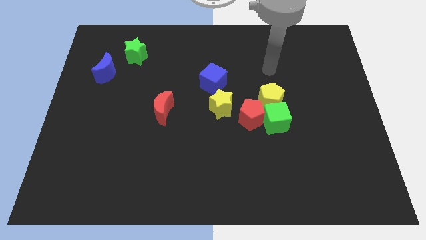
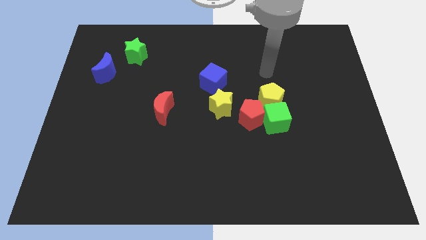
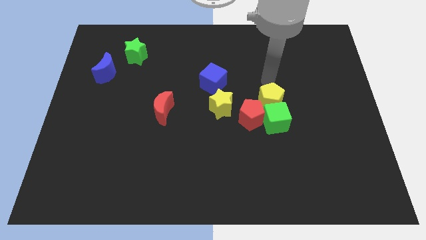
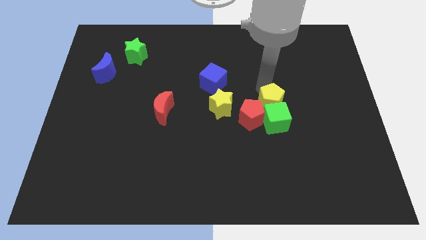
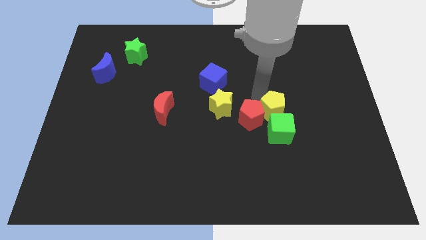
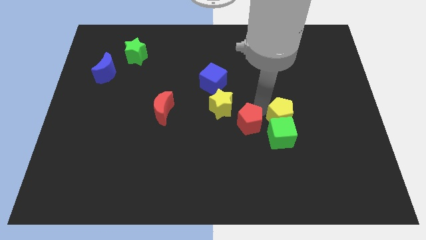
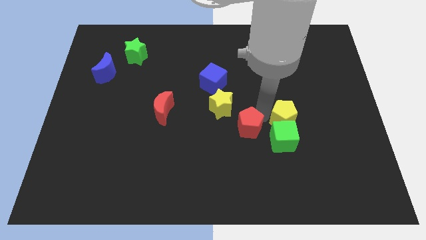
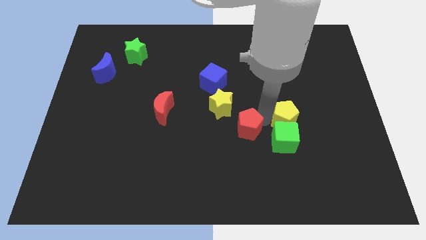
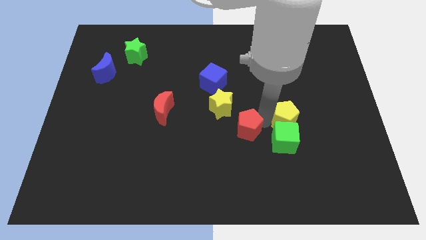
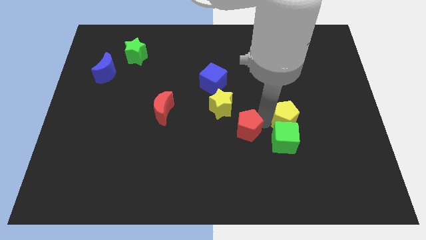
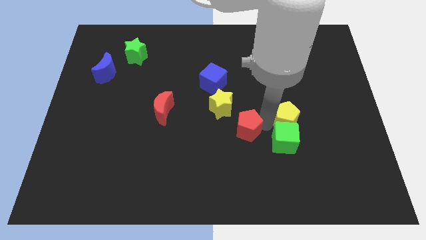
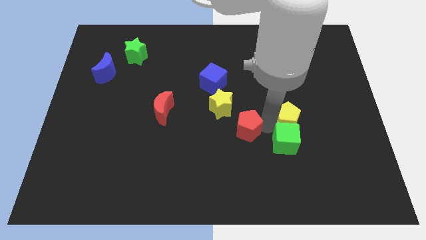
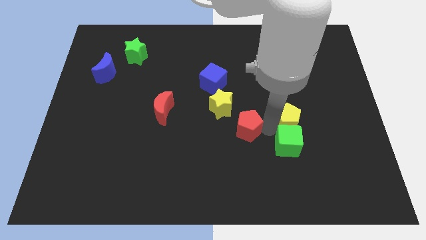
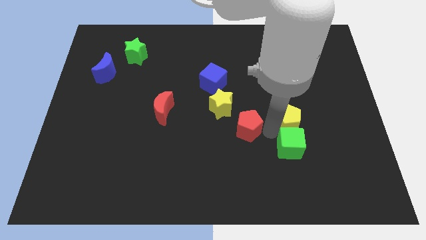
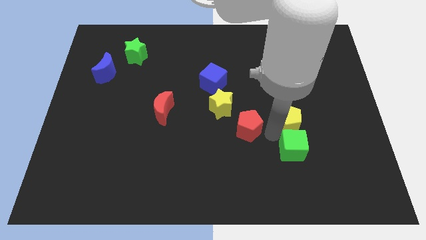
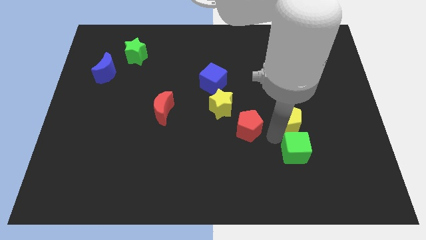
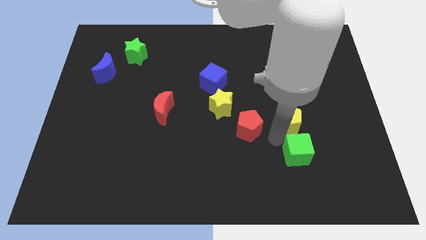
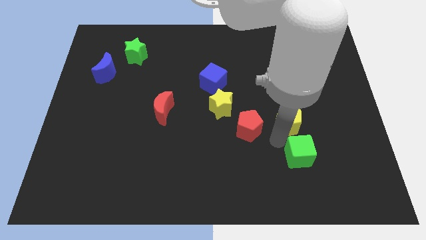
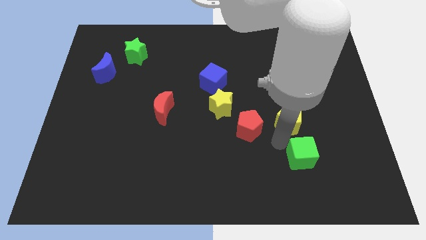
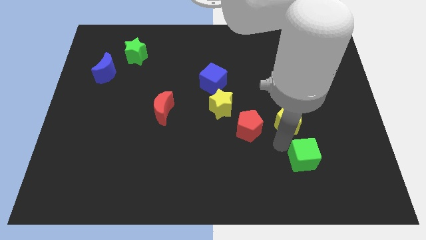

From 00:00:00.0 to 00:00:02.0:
pull the green cube apart from the red pentagon and yellow pentagon

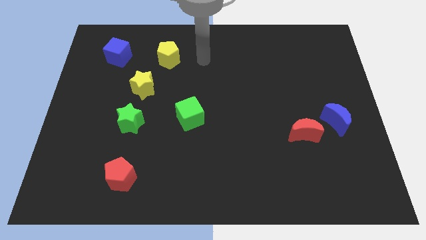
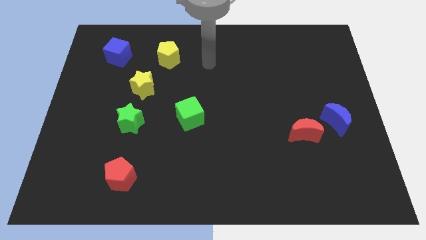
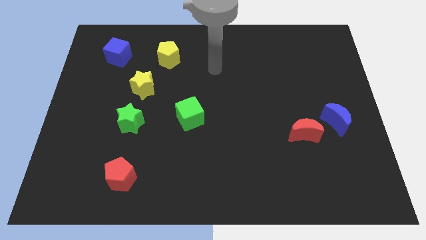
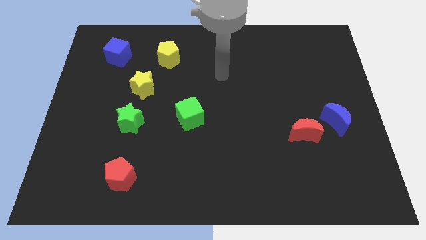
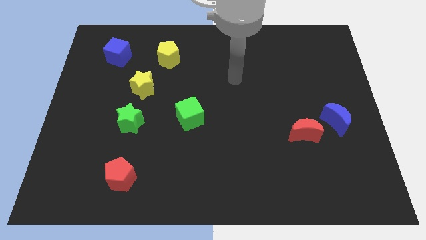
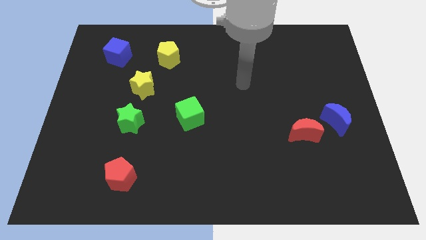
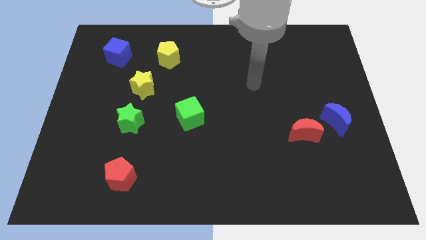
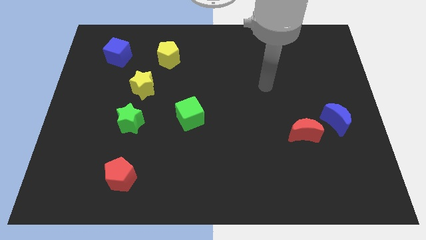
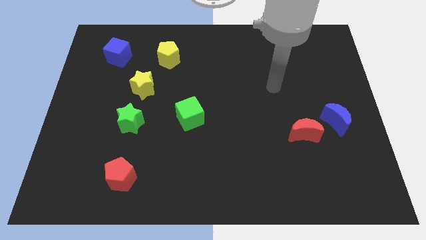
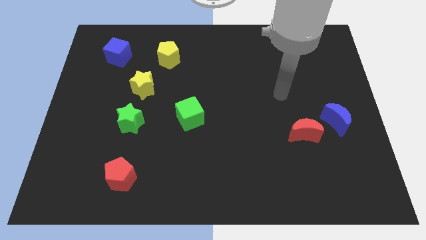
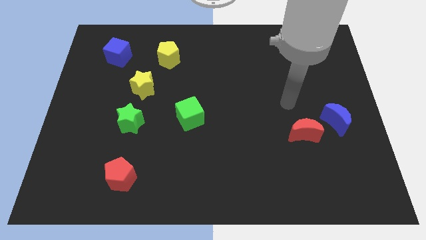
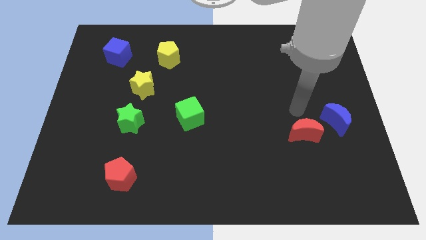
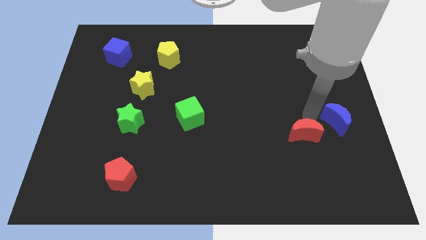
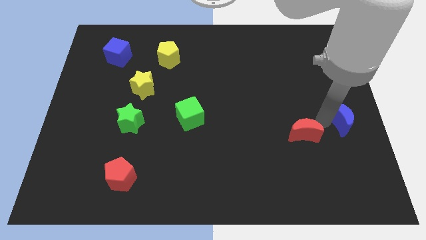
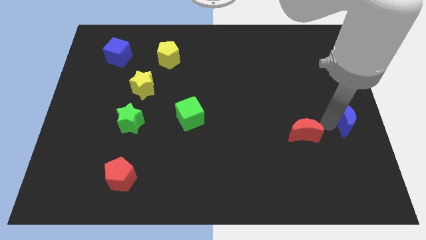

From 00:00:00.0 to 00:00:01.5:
pull the red moon apart from the blue moon

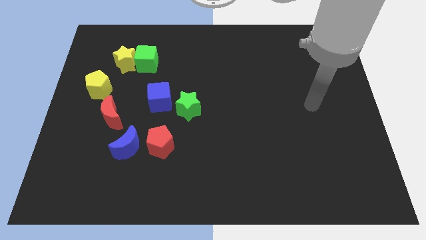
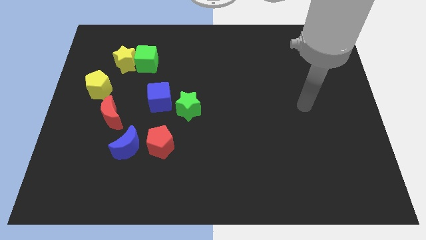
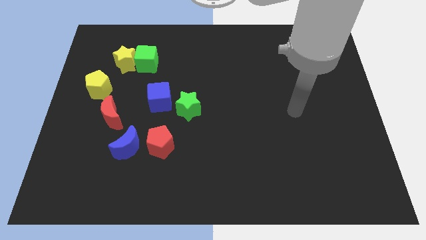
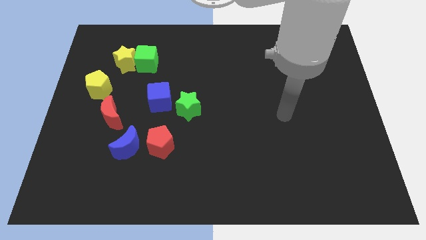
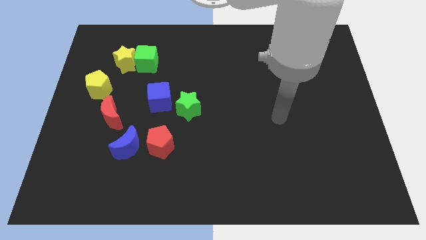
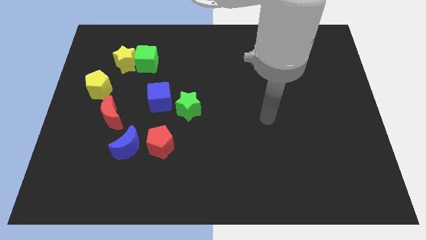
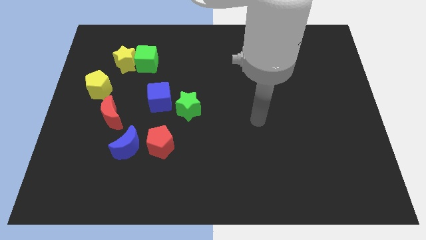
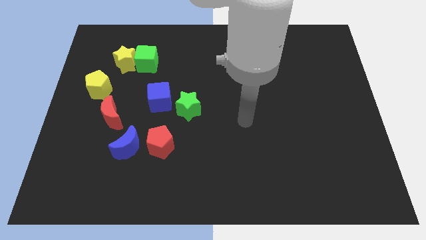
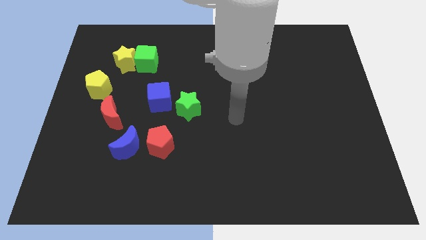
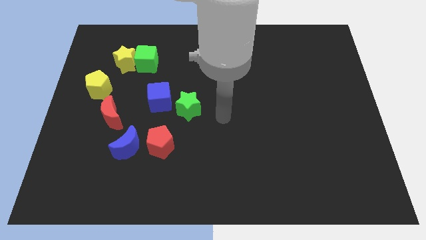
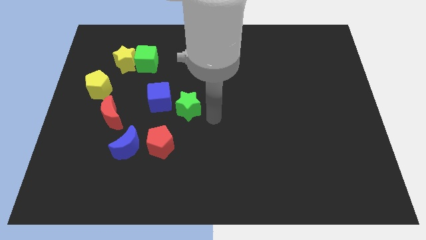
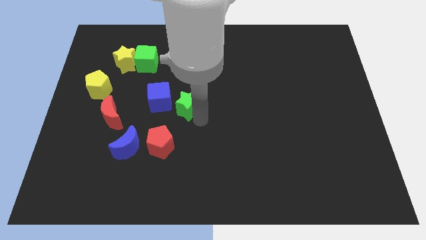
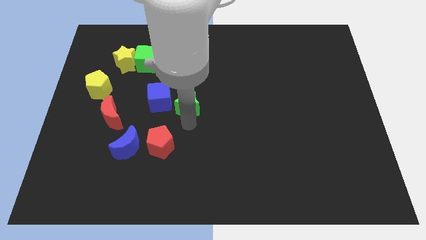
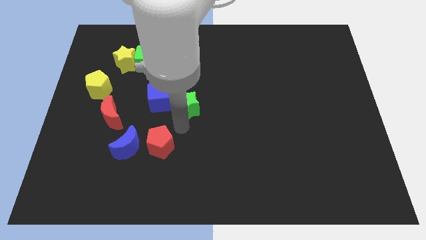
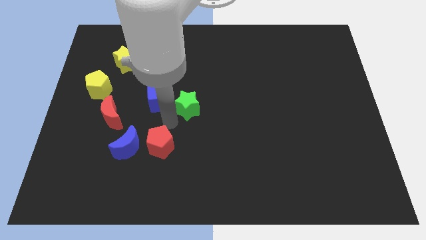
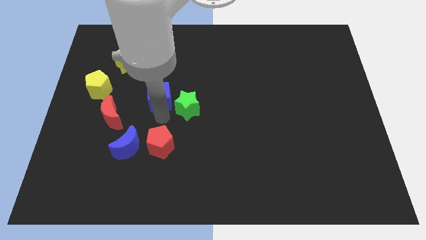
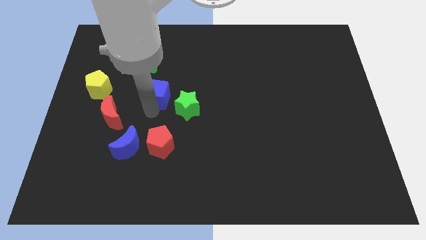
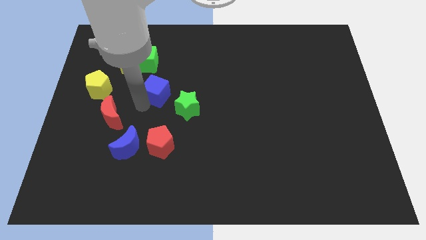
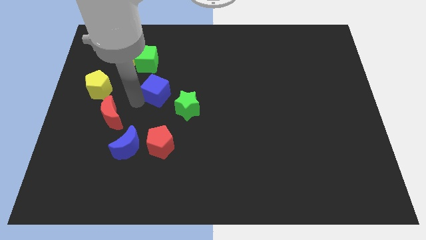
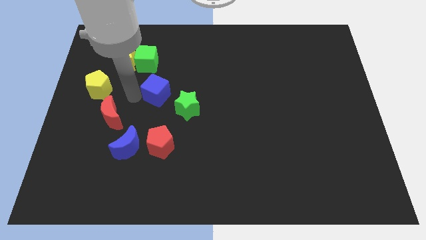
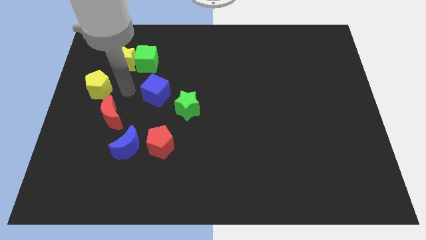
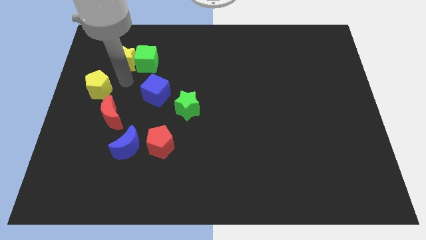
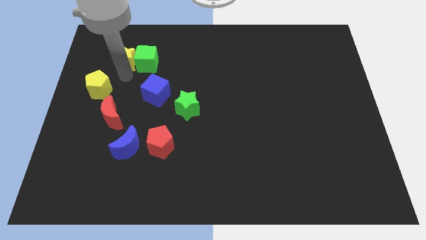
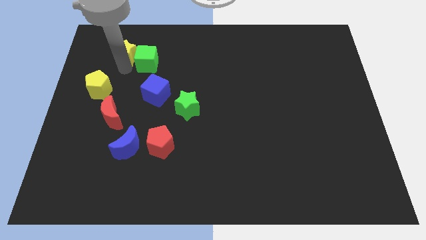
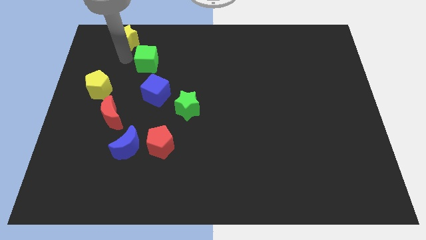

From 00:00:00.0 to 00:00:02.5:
pull the green cube apart from the yellow star

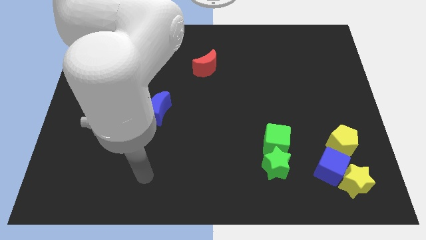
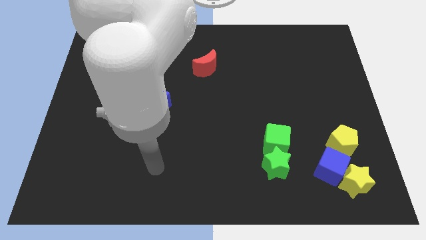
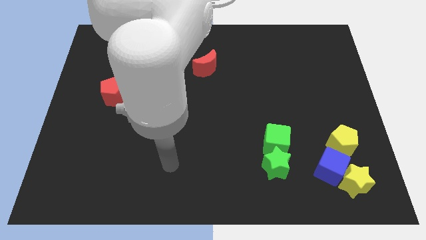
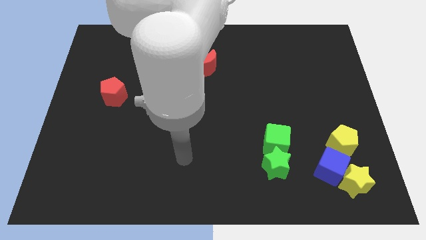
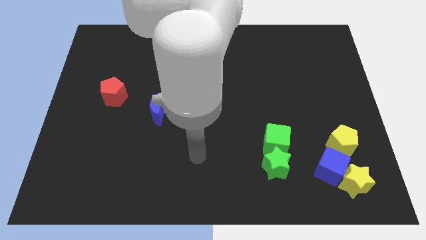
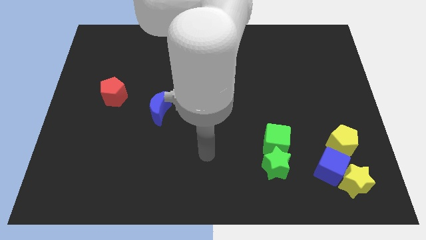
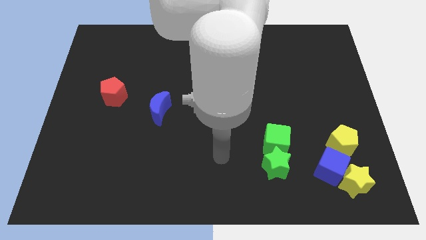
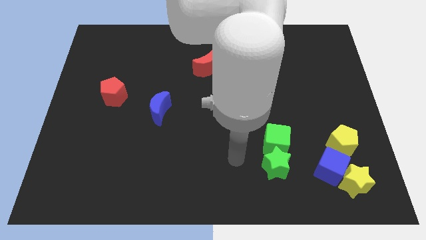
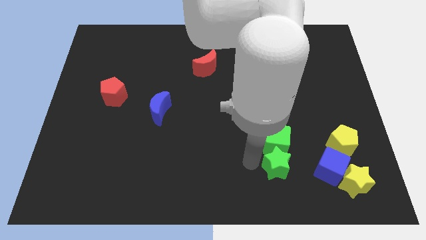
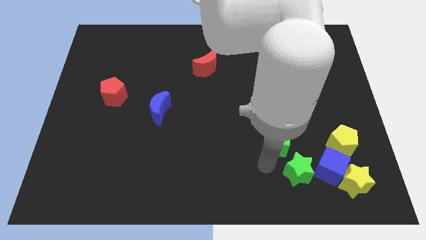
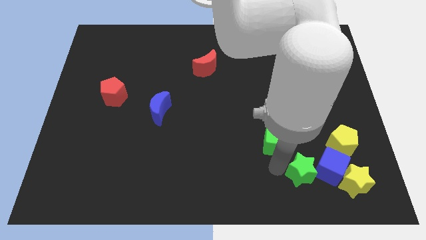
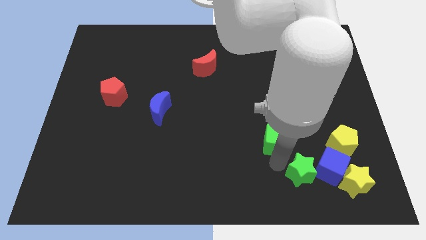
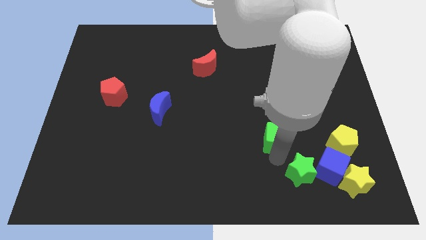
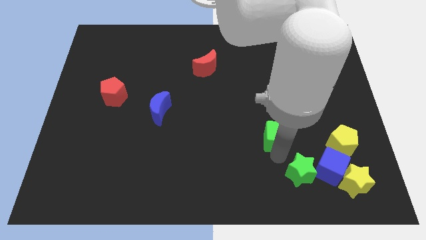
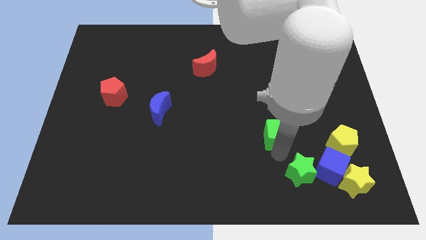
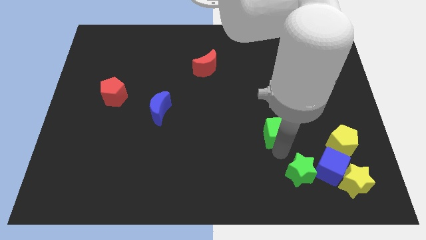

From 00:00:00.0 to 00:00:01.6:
pull the green cube apart from the green star

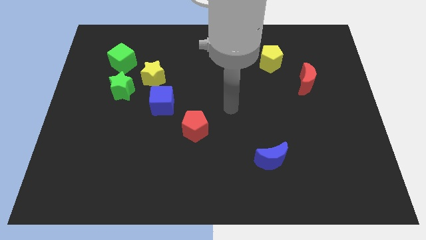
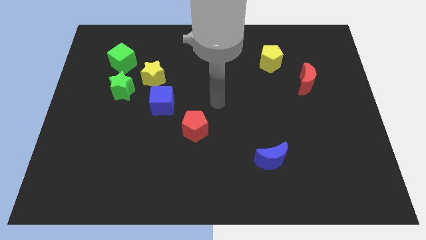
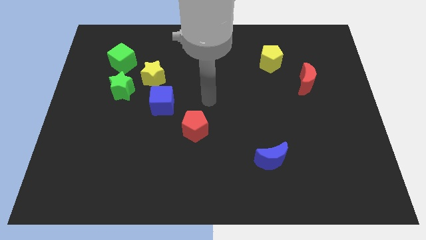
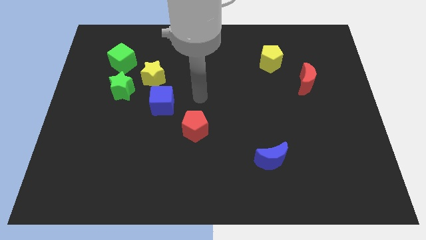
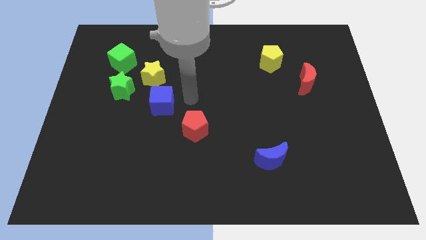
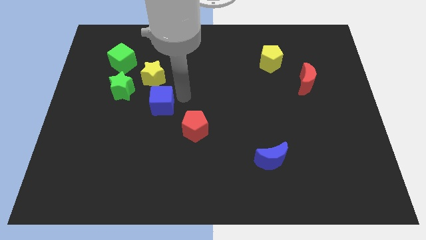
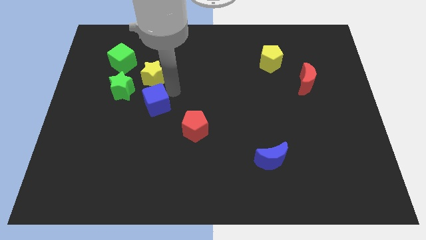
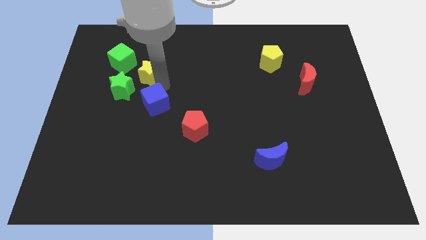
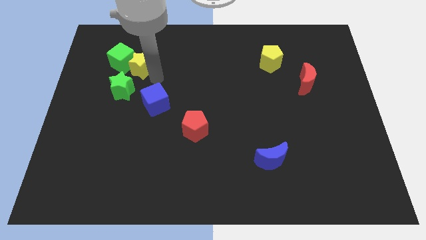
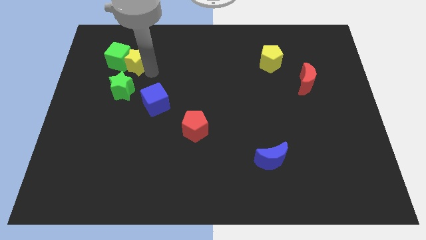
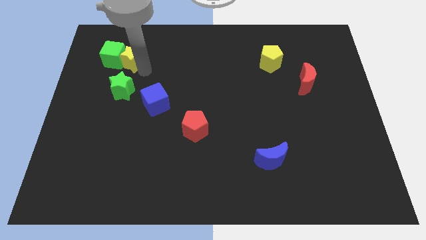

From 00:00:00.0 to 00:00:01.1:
separate the green star from the yellow star and green cube

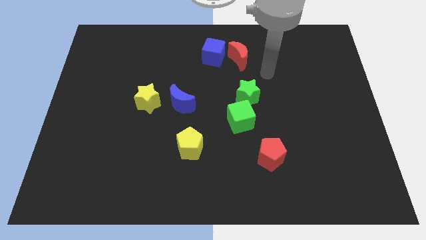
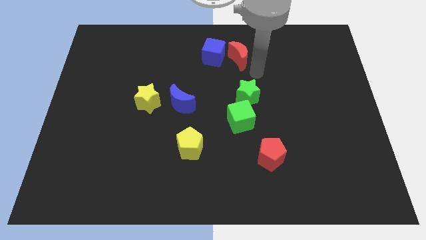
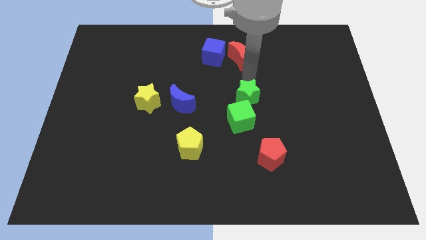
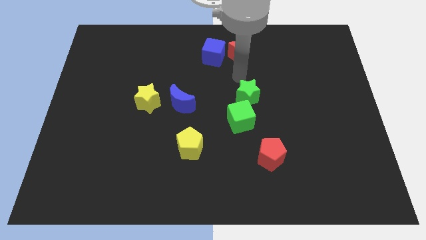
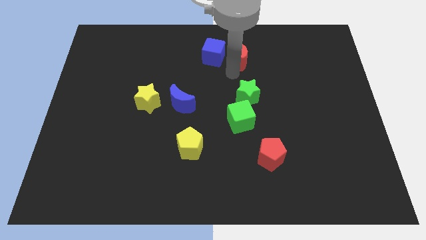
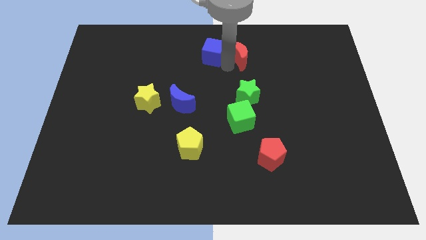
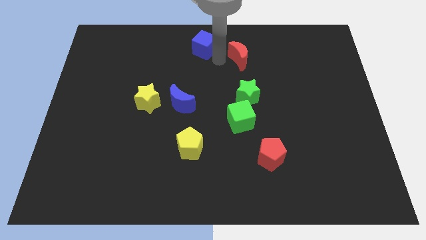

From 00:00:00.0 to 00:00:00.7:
move the red moon away from the blue cube

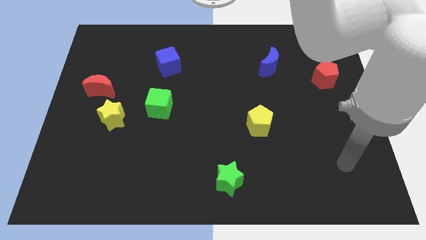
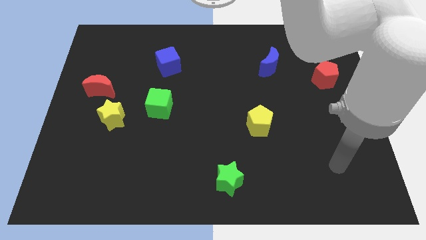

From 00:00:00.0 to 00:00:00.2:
pull the red moon apart from the yellow star
